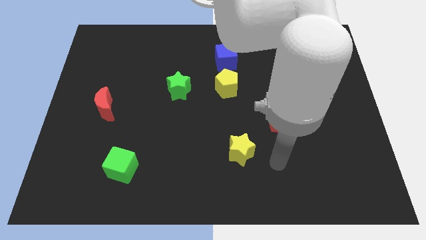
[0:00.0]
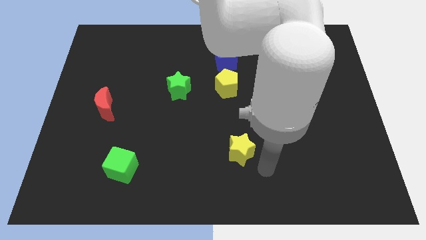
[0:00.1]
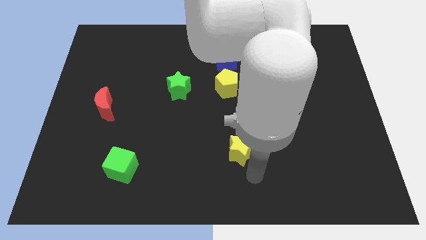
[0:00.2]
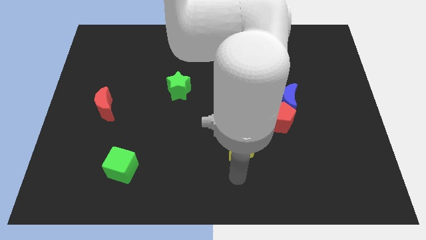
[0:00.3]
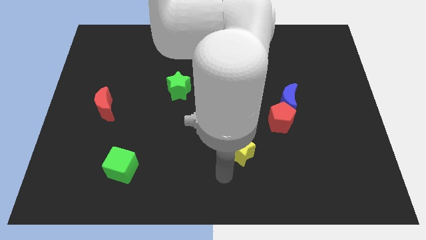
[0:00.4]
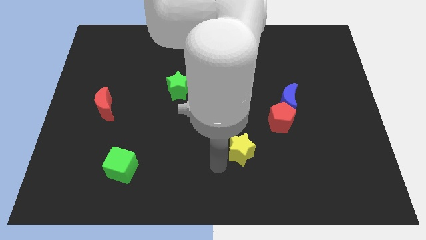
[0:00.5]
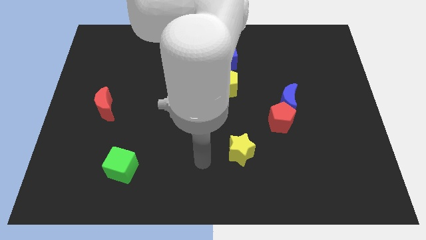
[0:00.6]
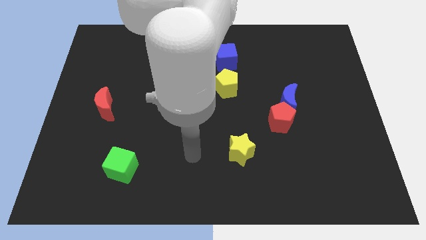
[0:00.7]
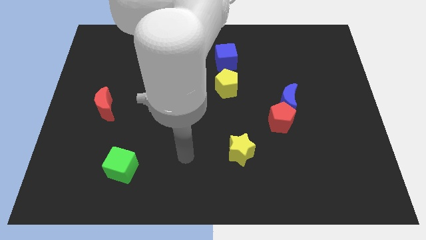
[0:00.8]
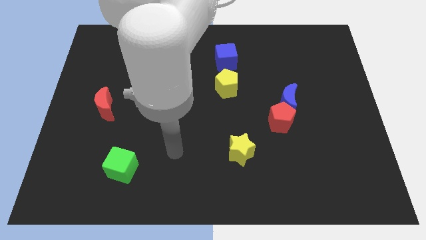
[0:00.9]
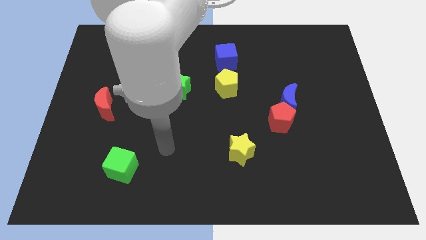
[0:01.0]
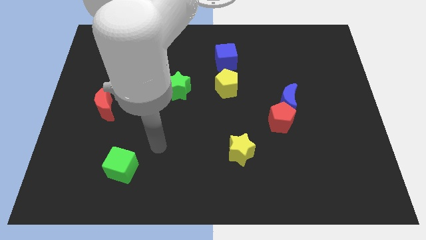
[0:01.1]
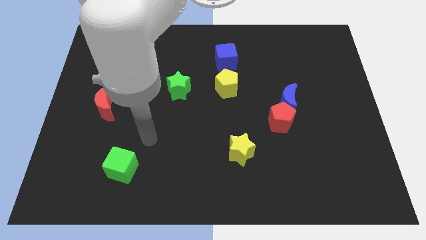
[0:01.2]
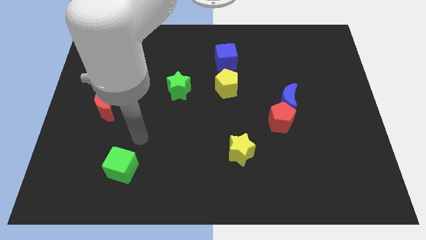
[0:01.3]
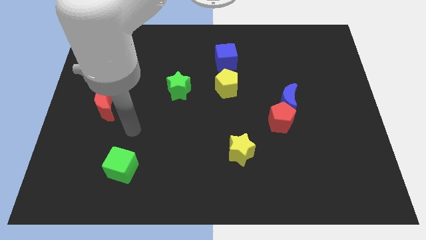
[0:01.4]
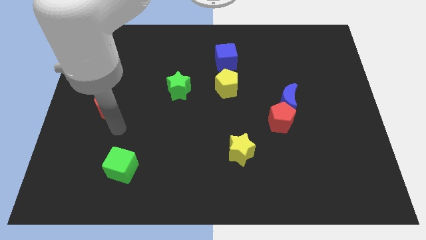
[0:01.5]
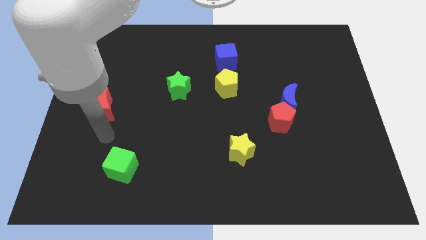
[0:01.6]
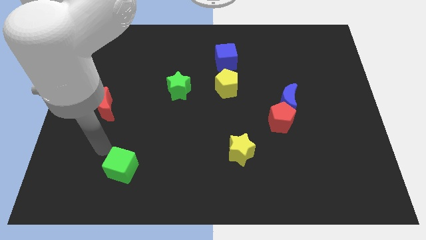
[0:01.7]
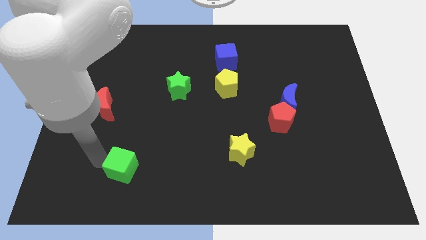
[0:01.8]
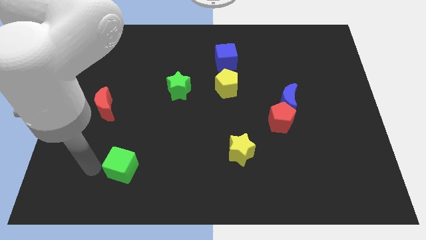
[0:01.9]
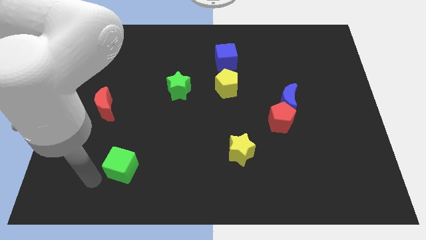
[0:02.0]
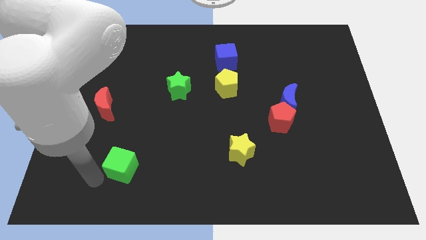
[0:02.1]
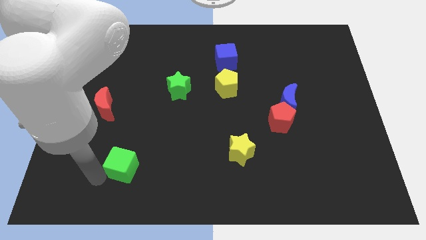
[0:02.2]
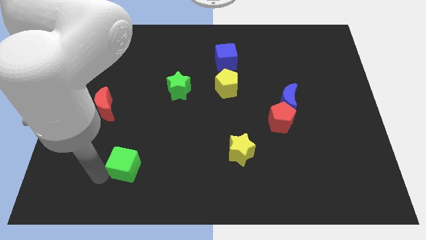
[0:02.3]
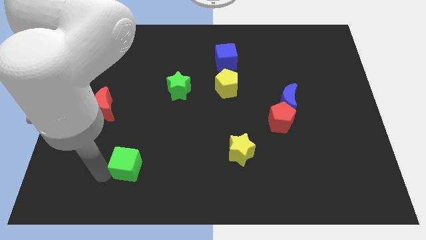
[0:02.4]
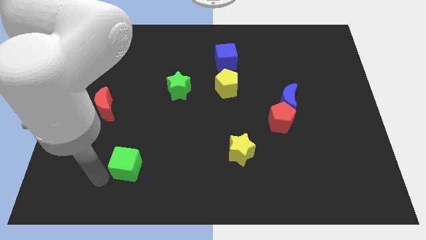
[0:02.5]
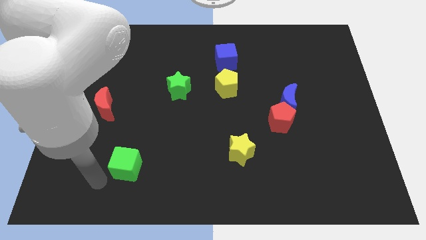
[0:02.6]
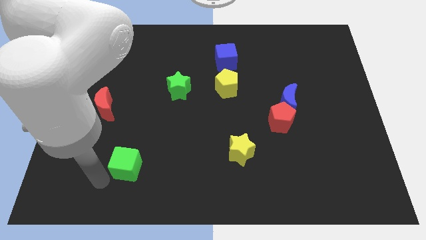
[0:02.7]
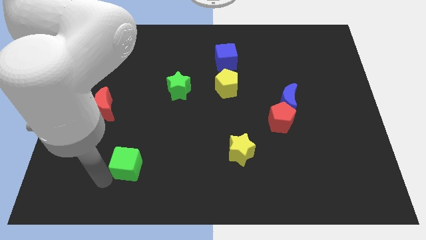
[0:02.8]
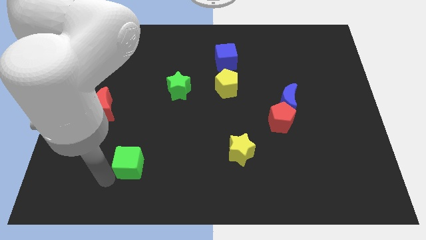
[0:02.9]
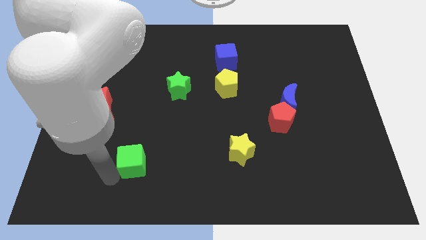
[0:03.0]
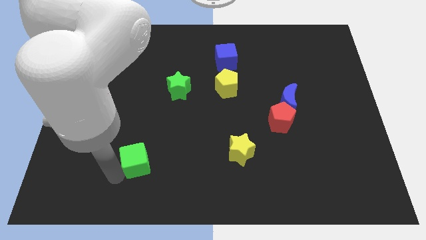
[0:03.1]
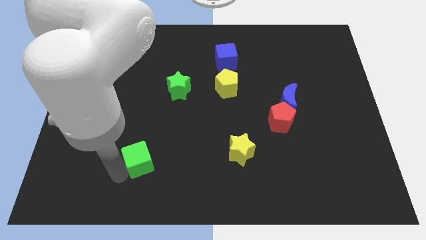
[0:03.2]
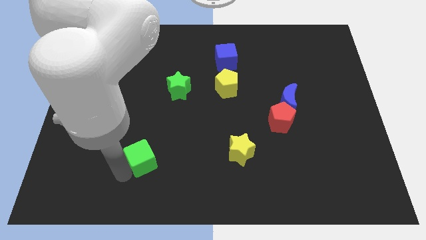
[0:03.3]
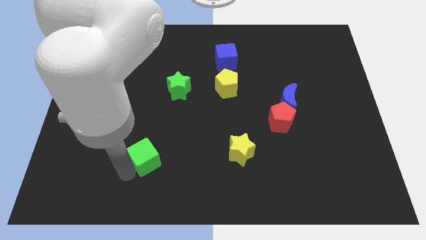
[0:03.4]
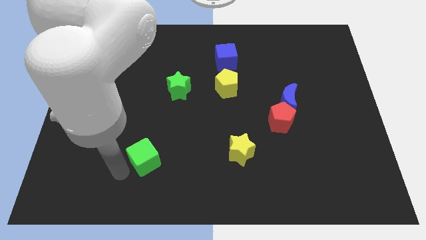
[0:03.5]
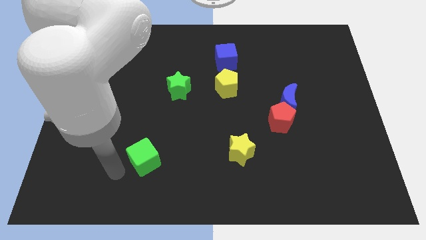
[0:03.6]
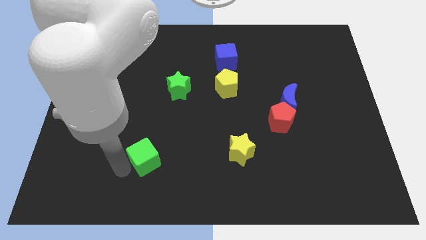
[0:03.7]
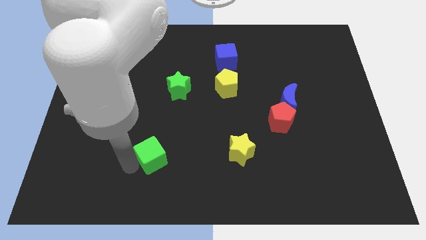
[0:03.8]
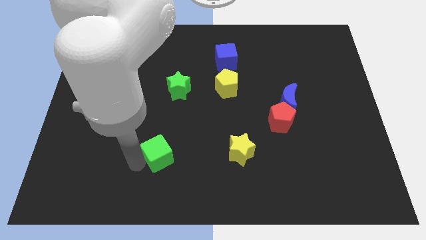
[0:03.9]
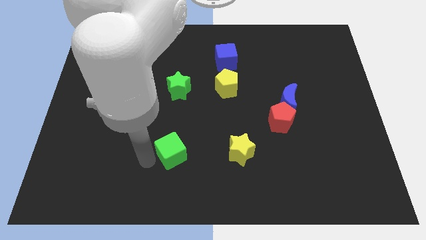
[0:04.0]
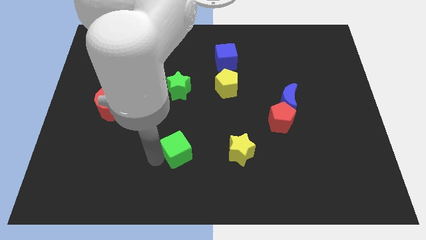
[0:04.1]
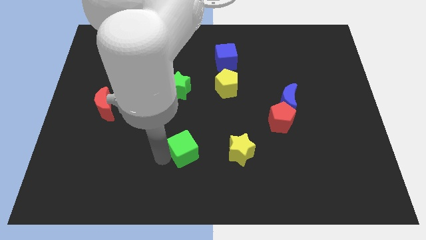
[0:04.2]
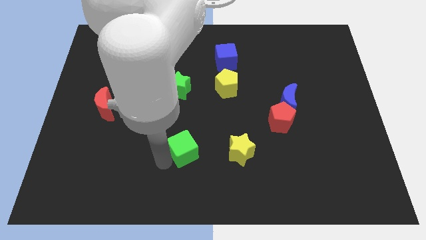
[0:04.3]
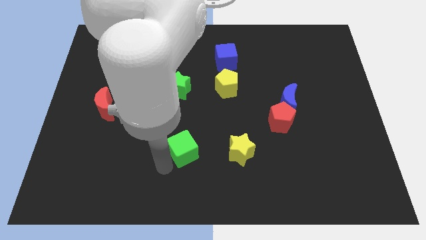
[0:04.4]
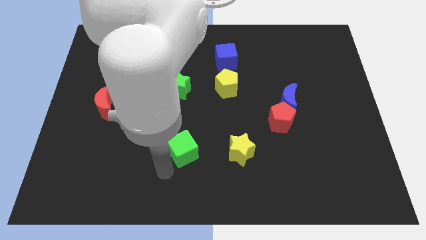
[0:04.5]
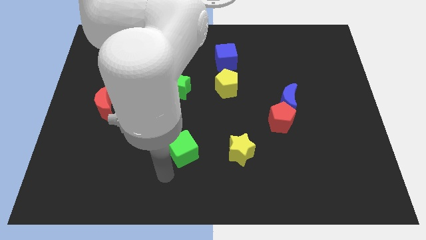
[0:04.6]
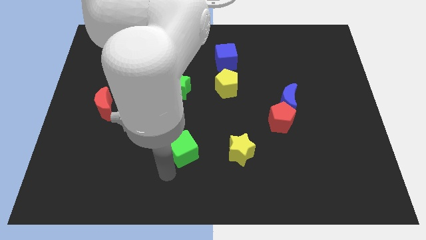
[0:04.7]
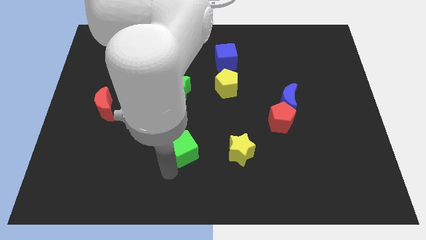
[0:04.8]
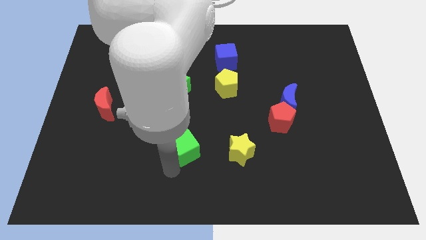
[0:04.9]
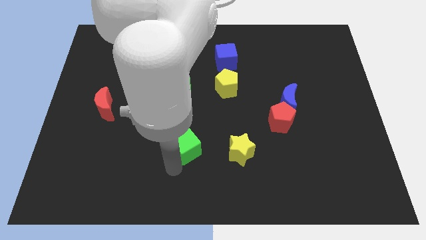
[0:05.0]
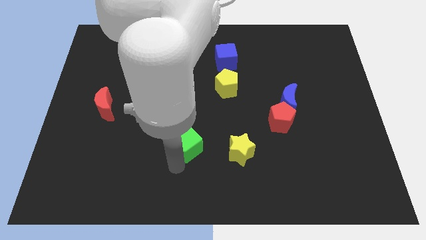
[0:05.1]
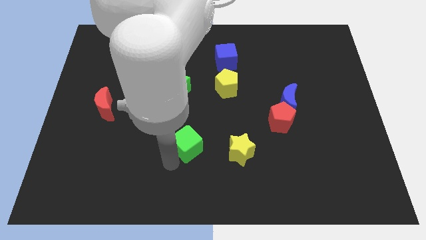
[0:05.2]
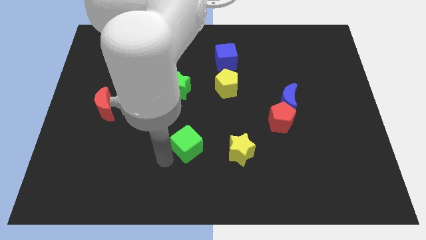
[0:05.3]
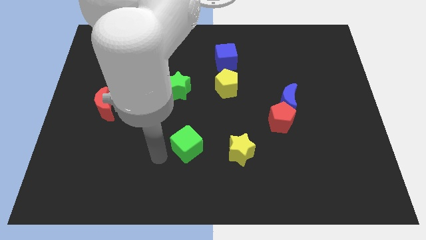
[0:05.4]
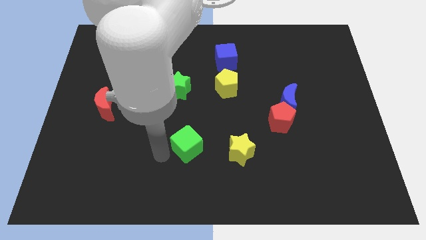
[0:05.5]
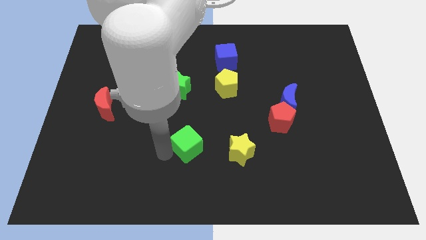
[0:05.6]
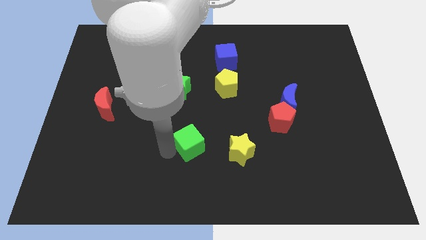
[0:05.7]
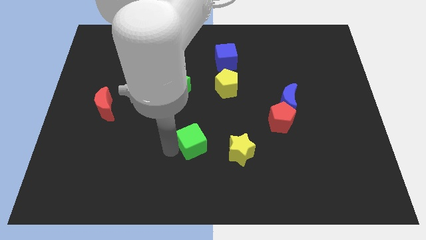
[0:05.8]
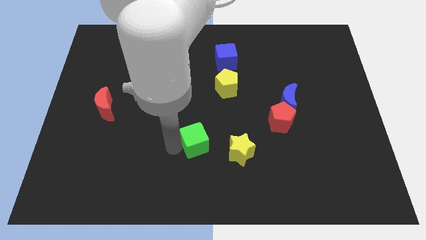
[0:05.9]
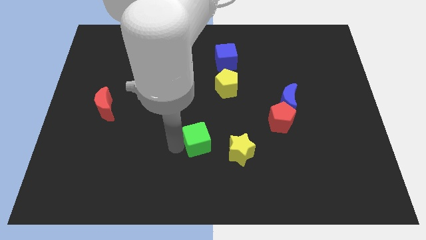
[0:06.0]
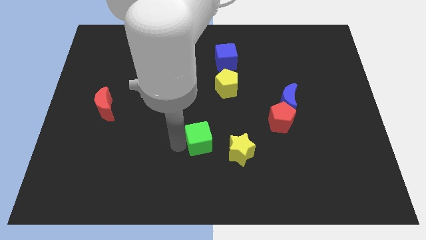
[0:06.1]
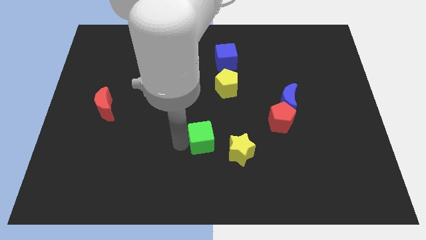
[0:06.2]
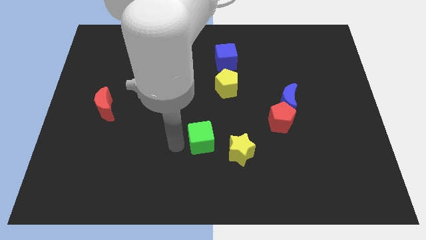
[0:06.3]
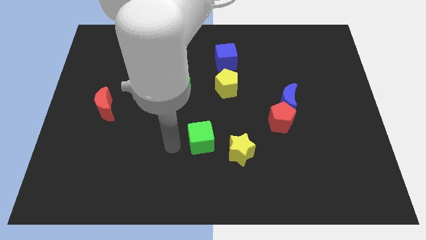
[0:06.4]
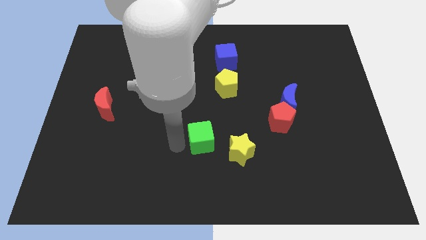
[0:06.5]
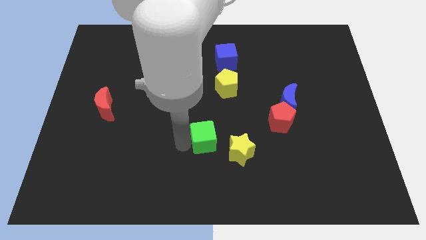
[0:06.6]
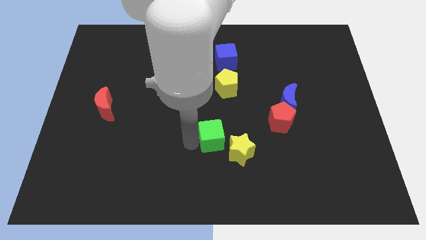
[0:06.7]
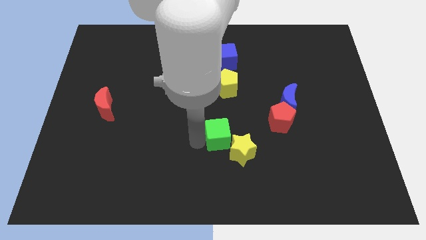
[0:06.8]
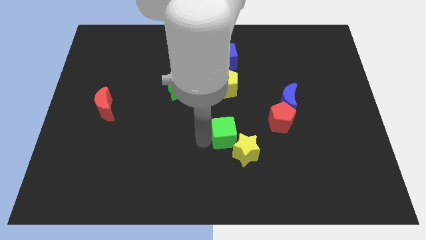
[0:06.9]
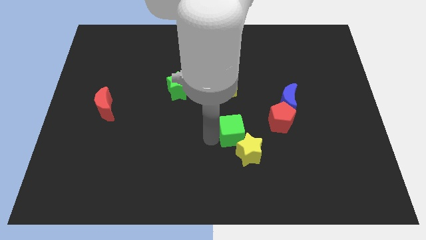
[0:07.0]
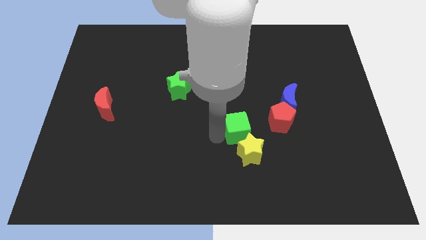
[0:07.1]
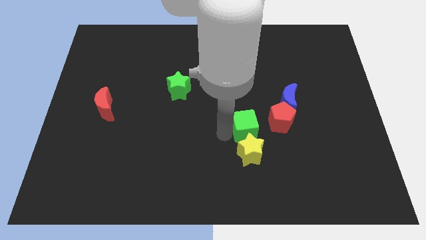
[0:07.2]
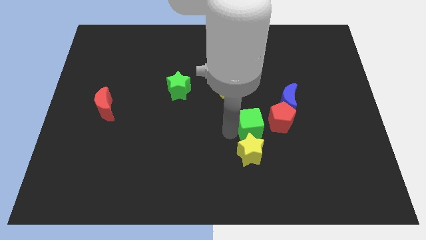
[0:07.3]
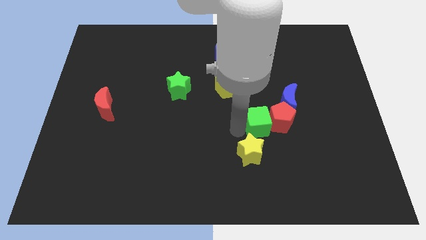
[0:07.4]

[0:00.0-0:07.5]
move the green cube towards the red pentagon

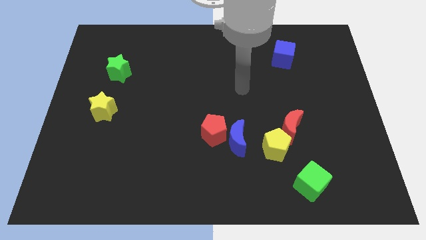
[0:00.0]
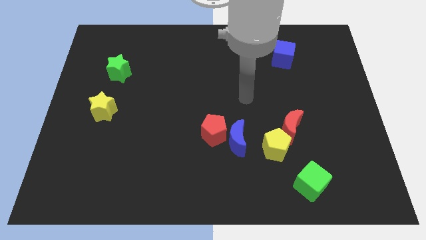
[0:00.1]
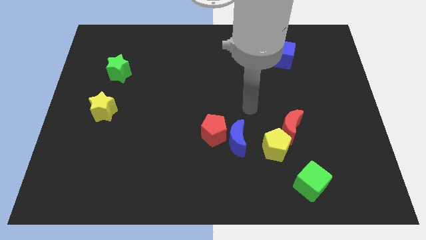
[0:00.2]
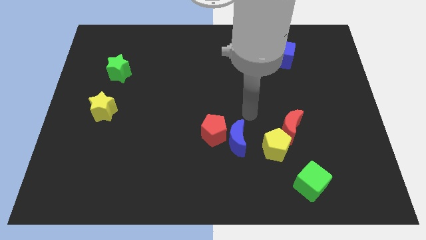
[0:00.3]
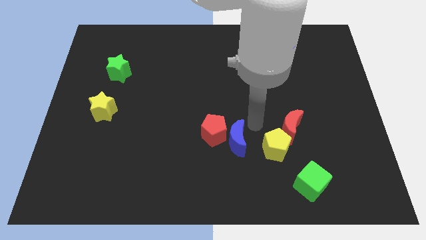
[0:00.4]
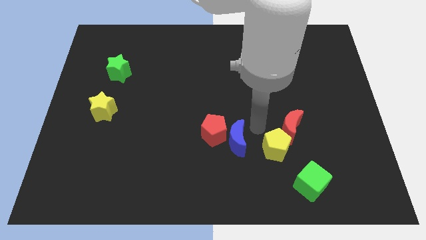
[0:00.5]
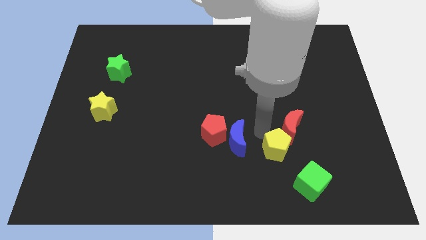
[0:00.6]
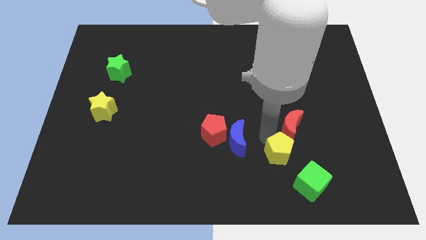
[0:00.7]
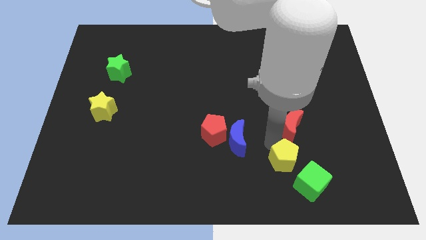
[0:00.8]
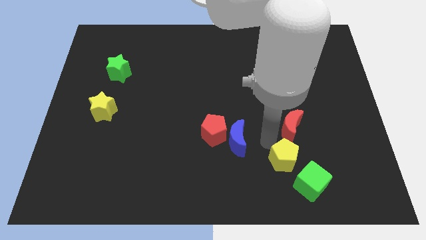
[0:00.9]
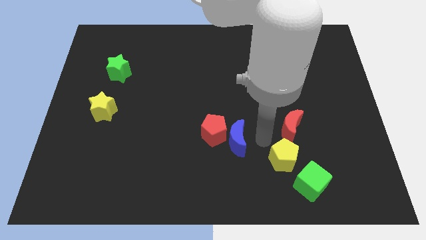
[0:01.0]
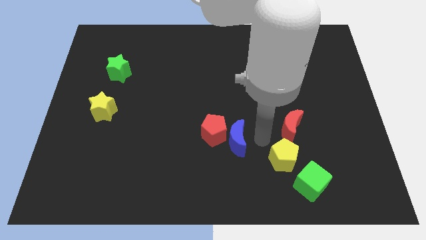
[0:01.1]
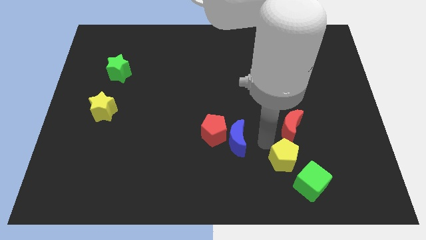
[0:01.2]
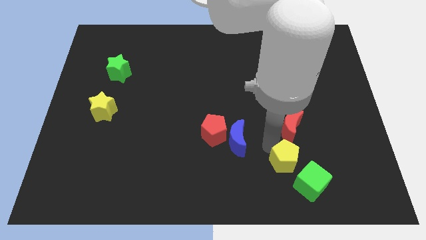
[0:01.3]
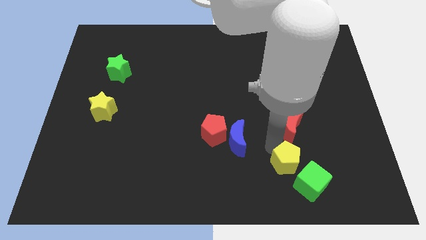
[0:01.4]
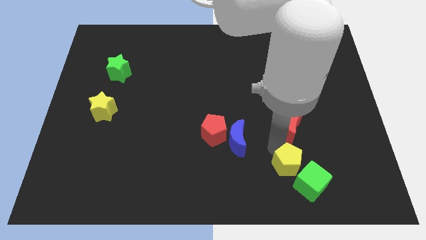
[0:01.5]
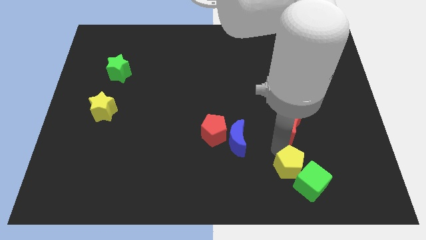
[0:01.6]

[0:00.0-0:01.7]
push the yellow pentagon to the green cube
